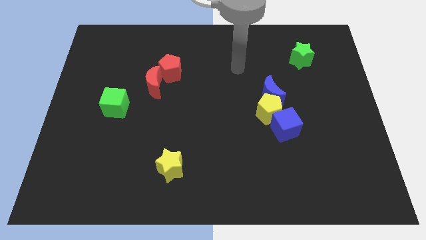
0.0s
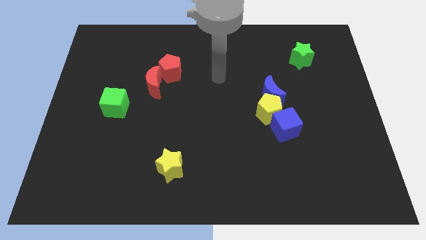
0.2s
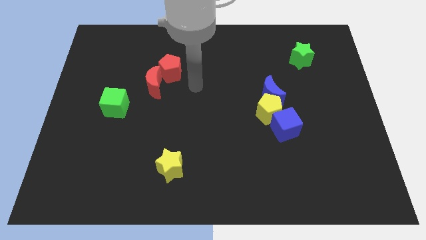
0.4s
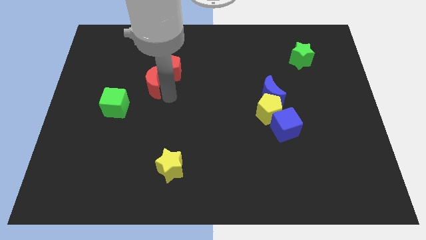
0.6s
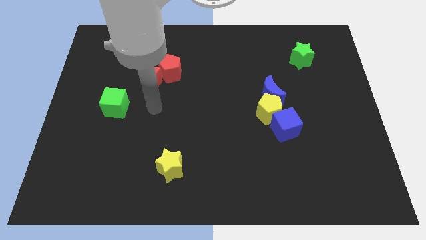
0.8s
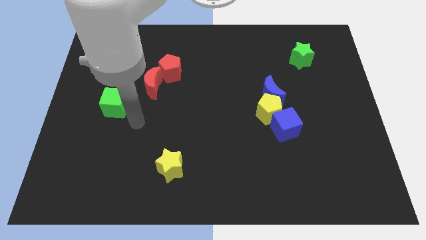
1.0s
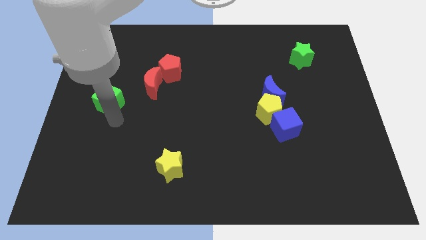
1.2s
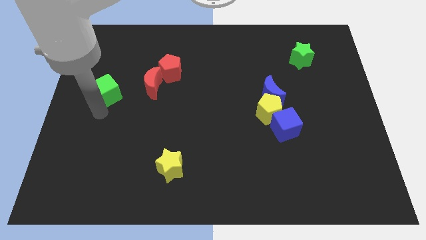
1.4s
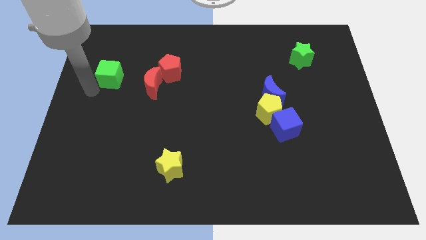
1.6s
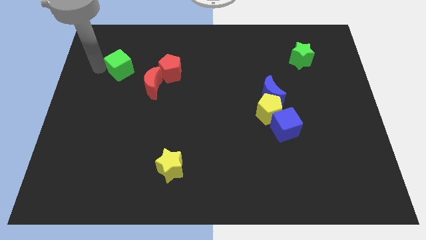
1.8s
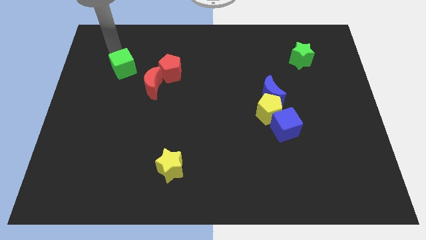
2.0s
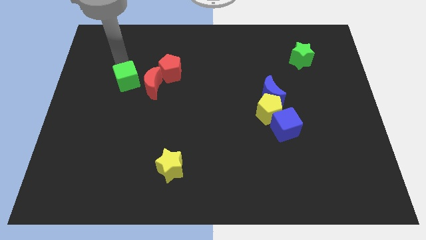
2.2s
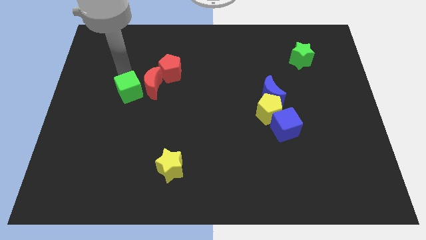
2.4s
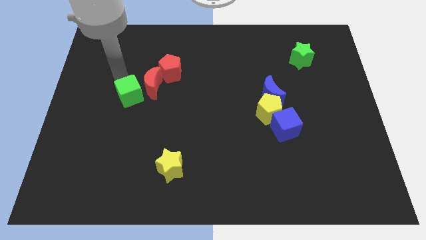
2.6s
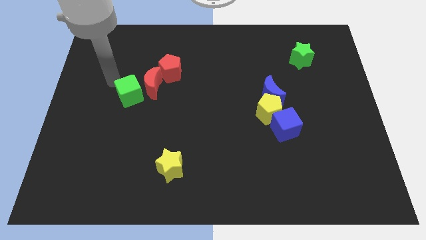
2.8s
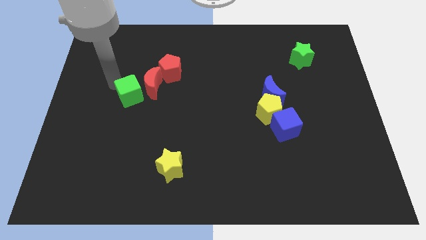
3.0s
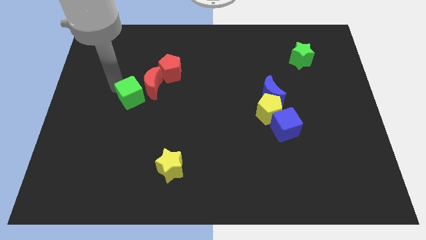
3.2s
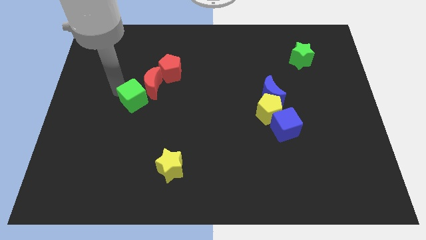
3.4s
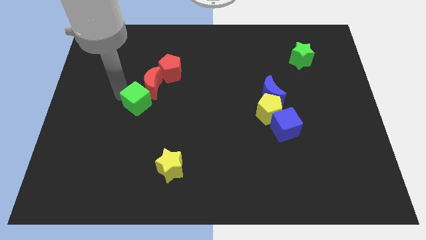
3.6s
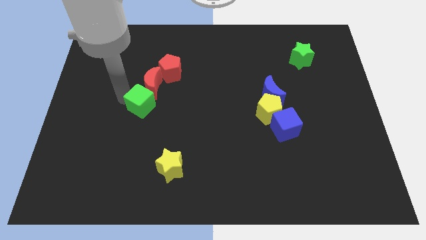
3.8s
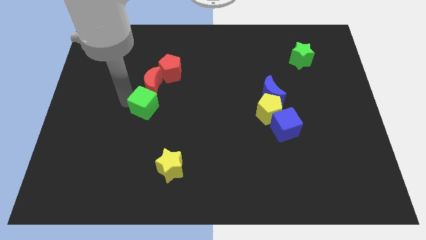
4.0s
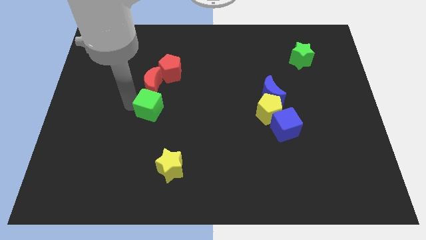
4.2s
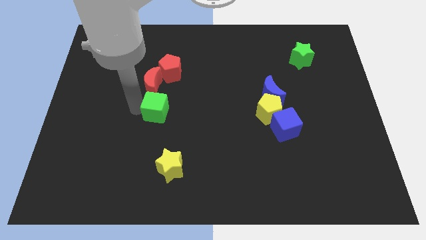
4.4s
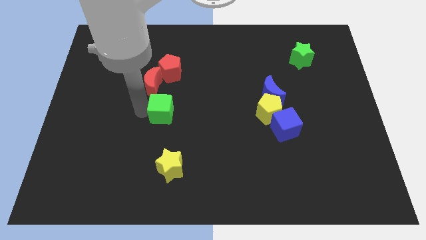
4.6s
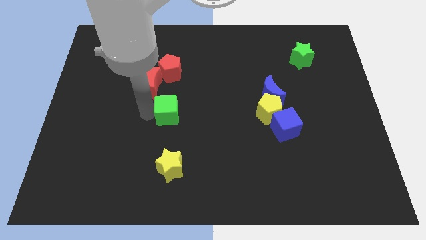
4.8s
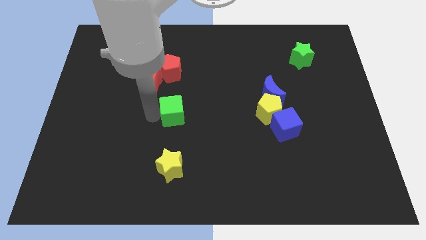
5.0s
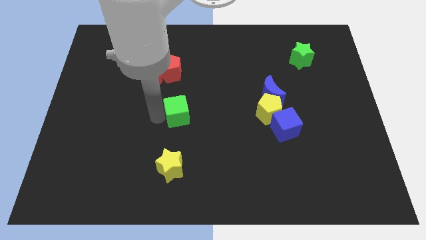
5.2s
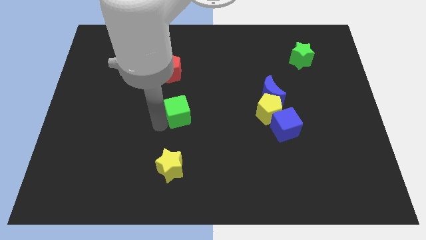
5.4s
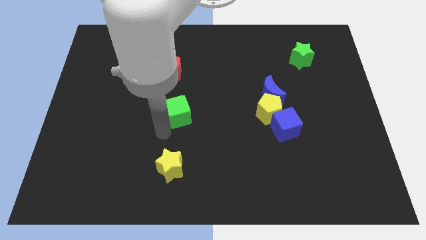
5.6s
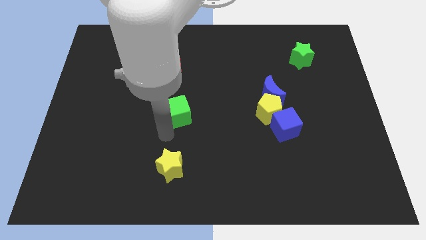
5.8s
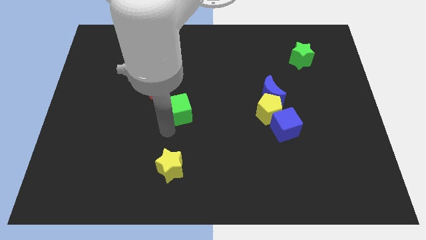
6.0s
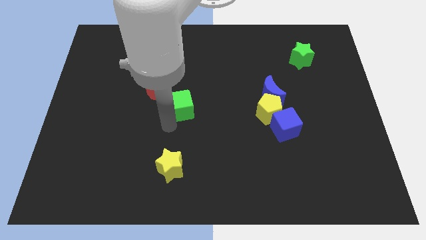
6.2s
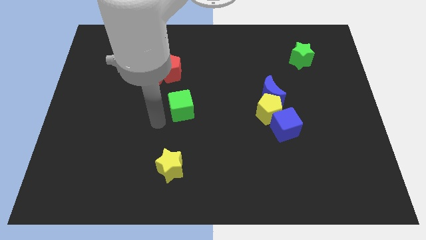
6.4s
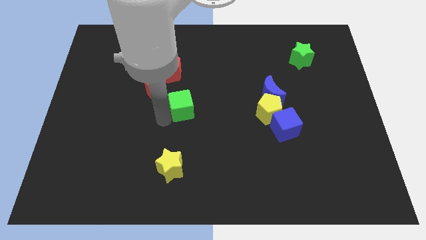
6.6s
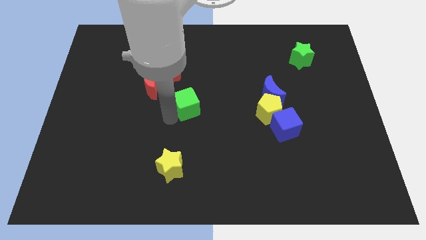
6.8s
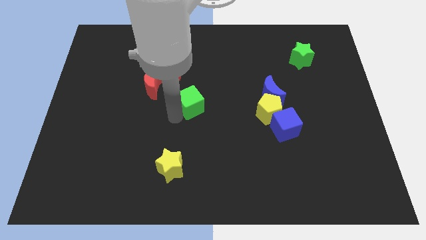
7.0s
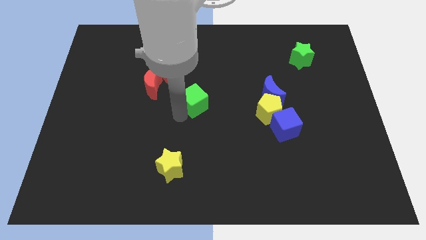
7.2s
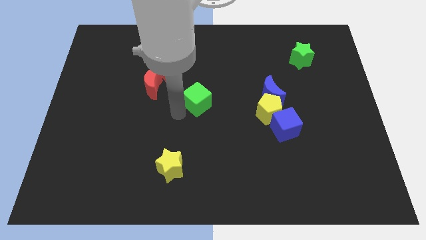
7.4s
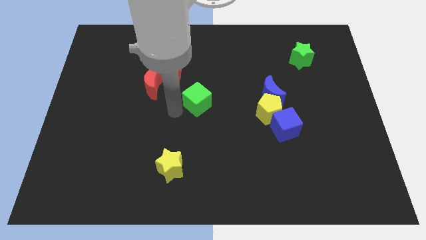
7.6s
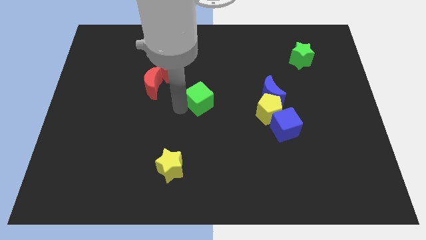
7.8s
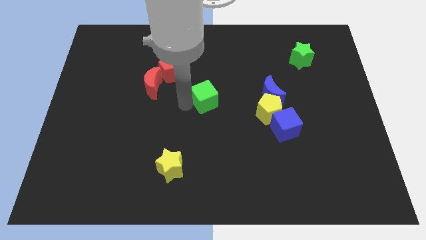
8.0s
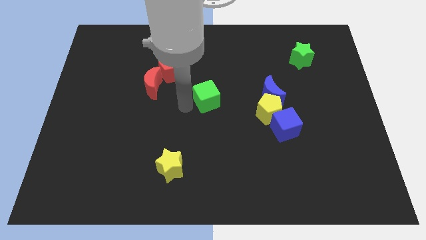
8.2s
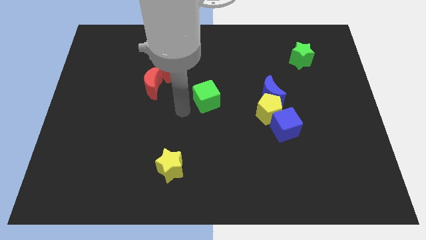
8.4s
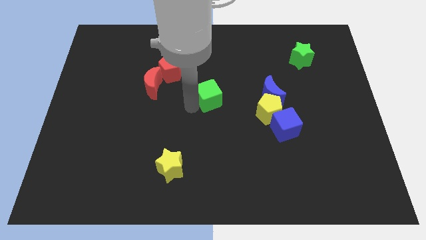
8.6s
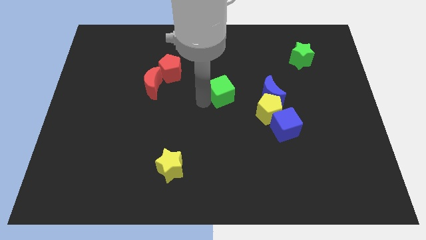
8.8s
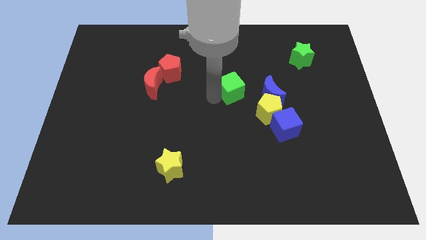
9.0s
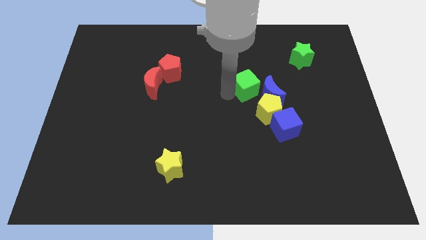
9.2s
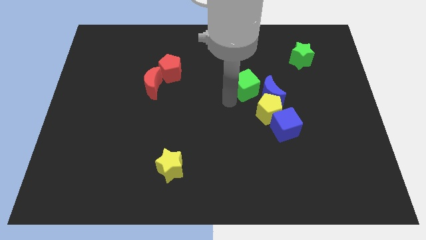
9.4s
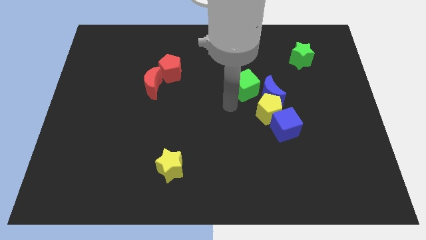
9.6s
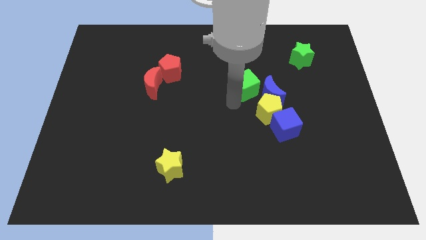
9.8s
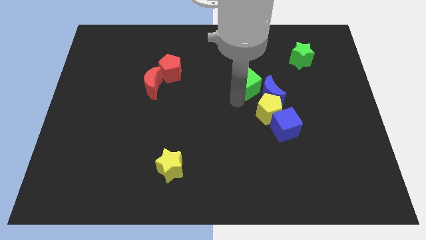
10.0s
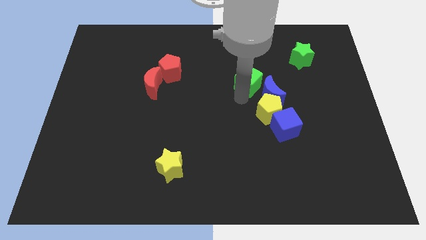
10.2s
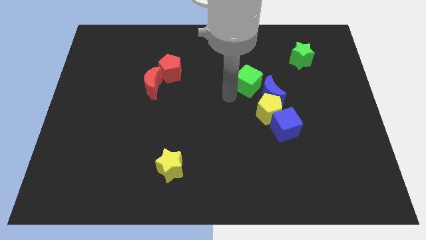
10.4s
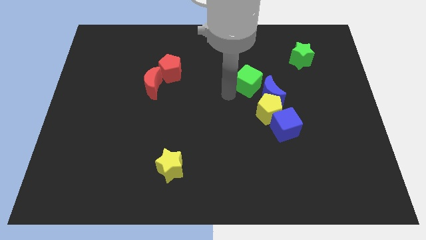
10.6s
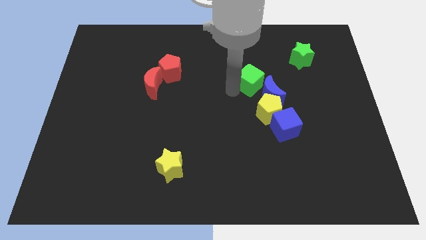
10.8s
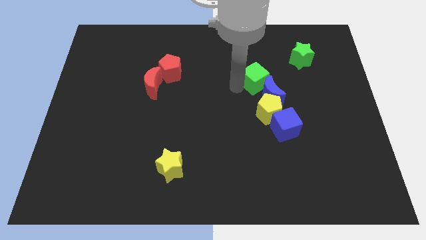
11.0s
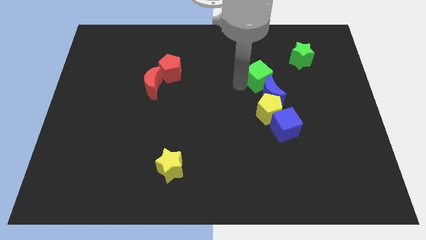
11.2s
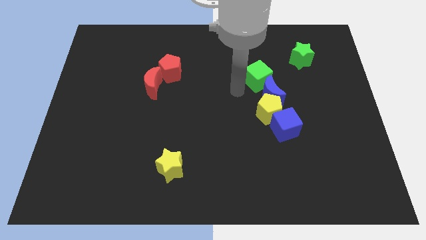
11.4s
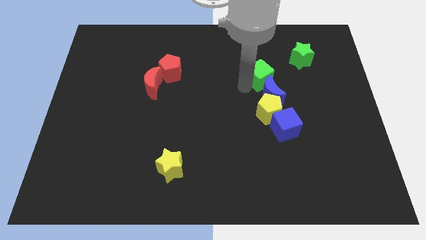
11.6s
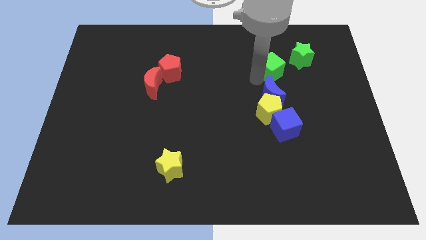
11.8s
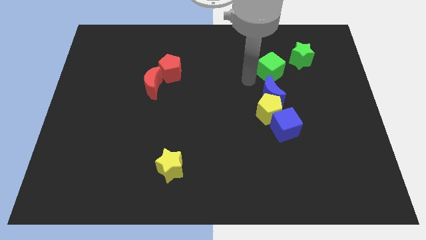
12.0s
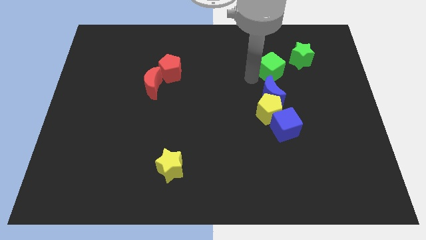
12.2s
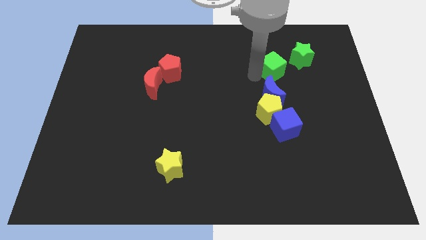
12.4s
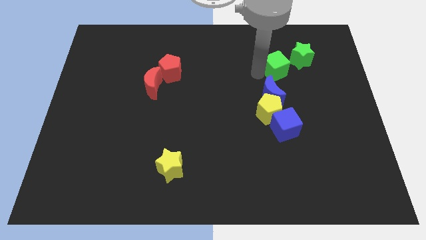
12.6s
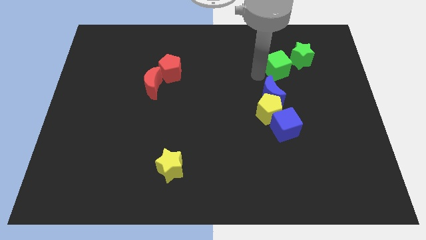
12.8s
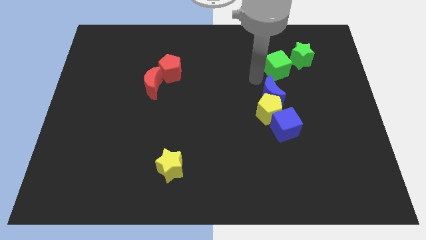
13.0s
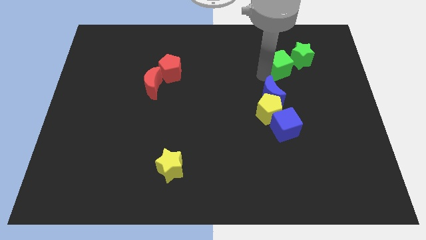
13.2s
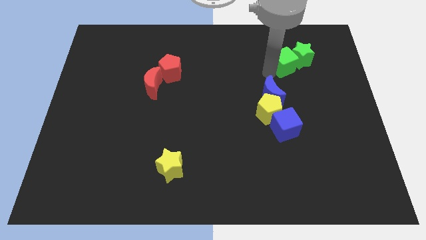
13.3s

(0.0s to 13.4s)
move the green cube towards the green star
